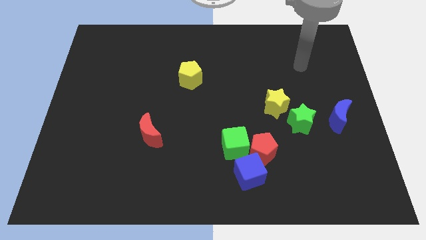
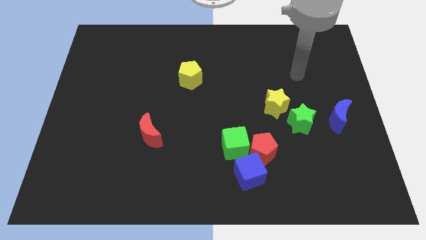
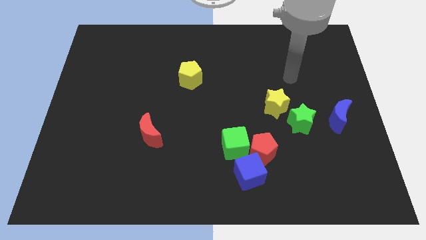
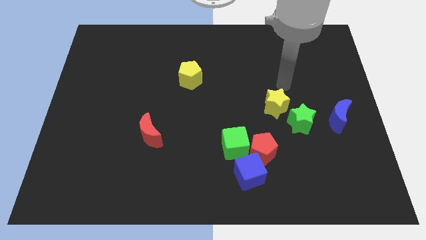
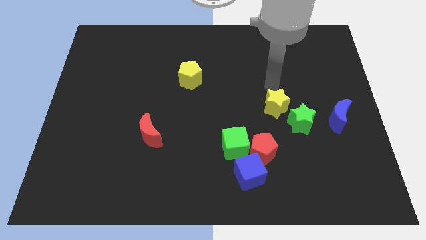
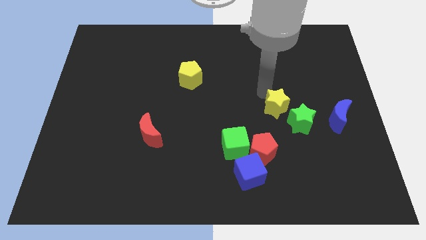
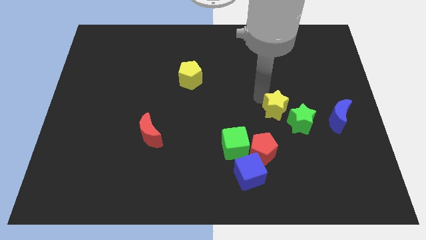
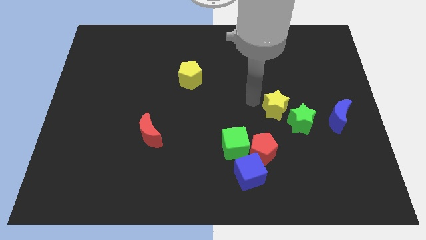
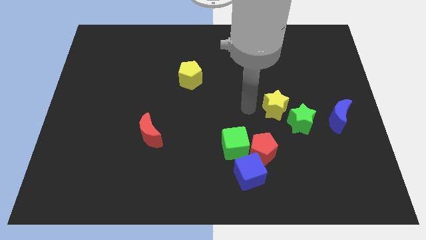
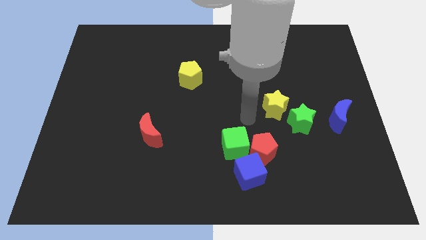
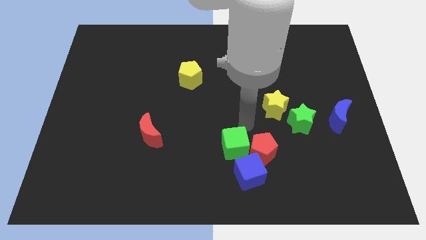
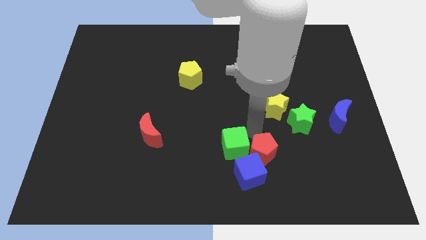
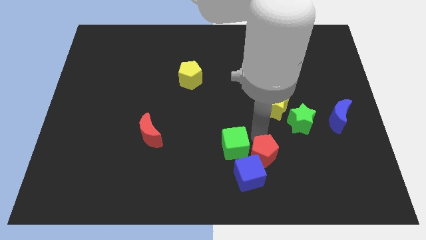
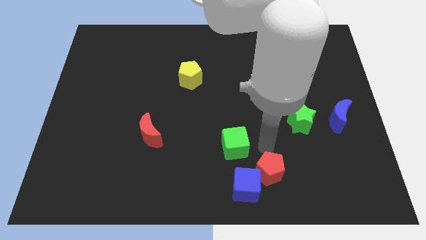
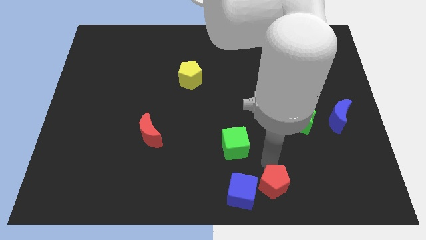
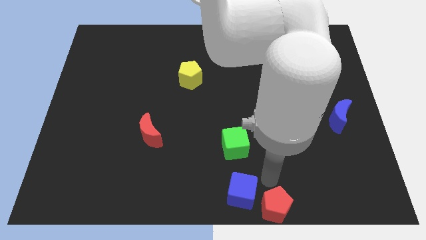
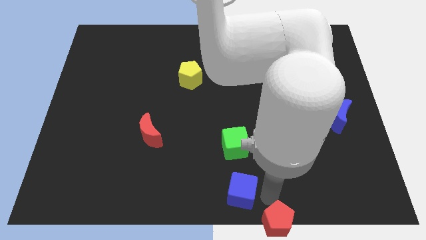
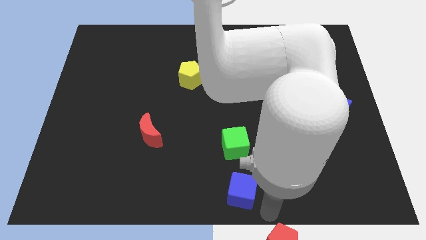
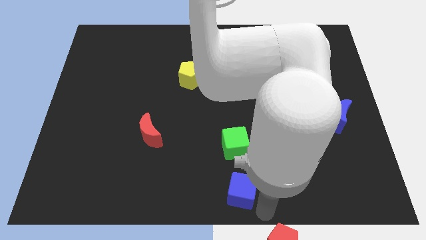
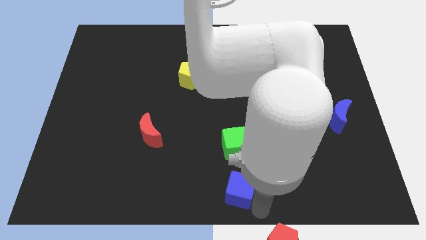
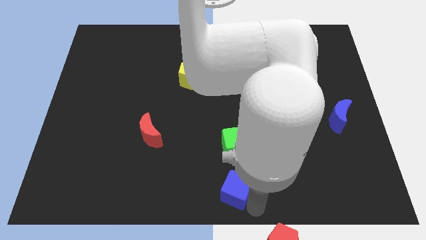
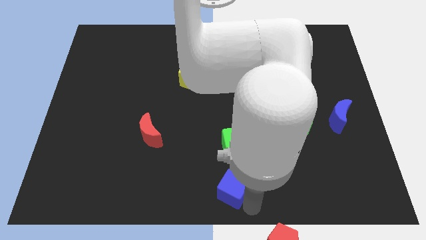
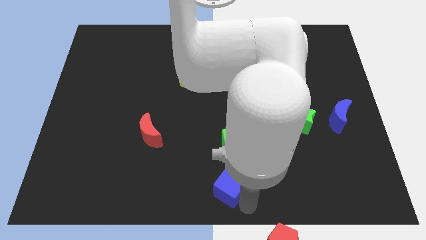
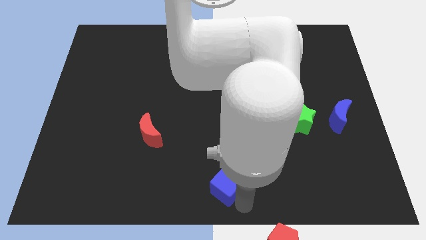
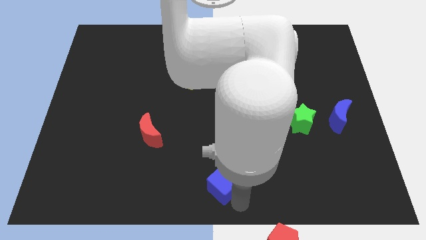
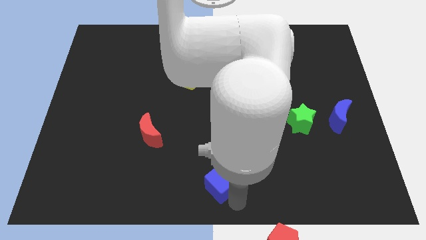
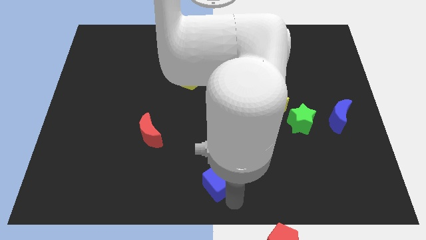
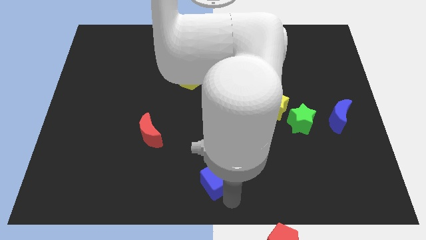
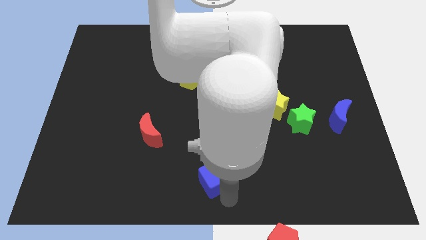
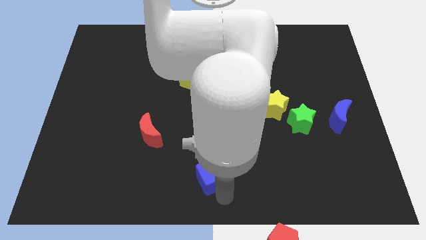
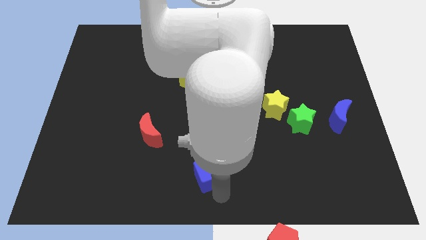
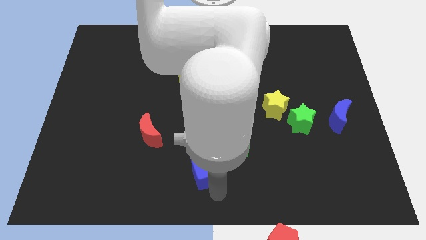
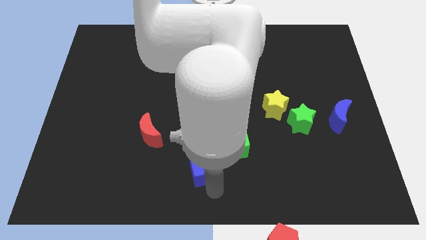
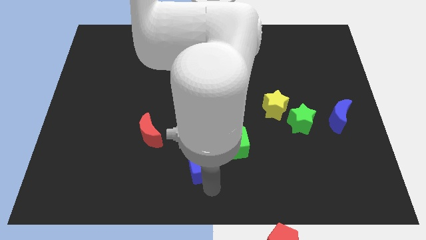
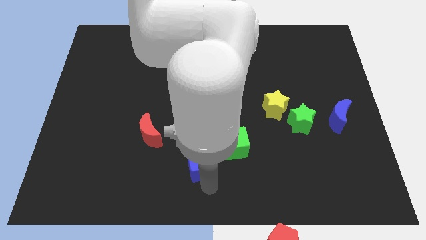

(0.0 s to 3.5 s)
slide the blue cube somewhat up and to the left diagonally

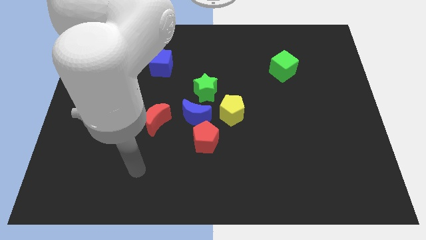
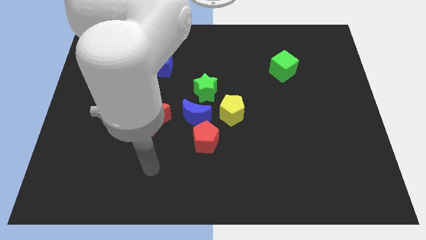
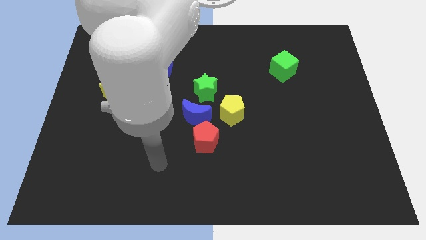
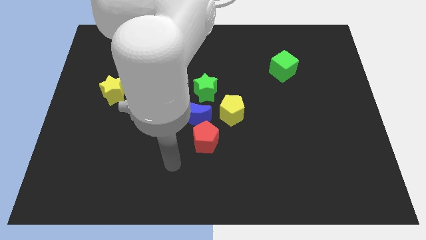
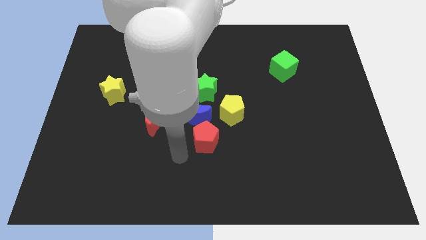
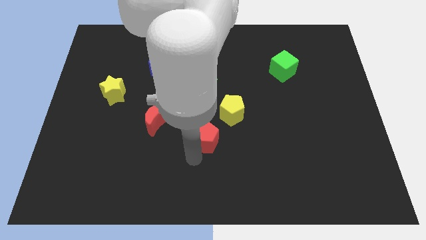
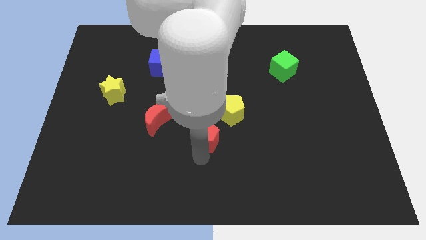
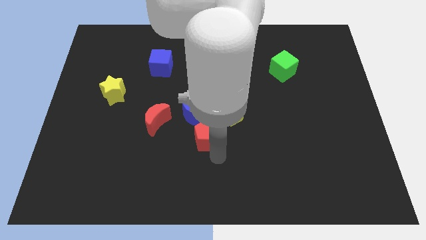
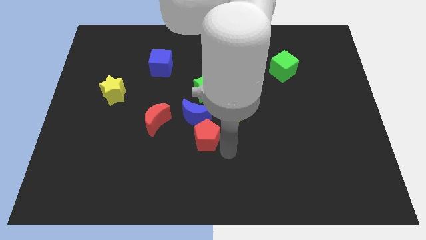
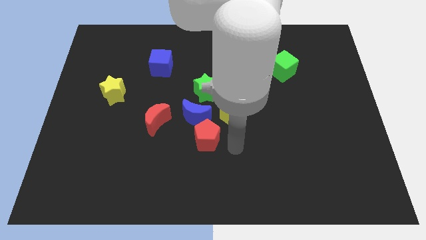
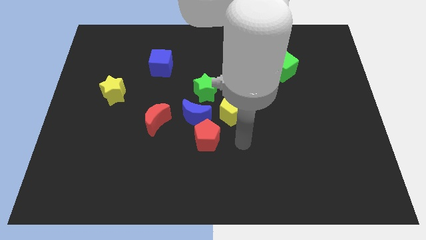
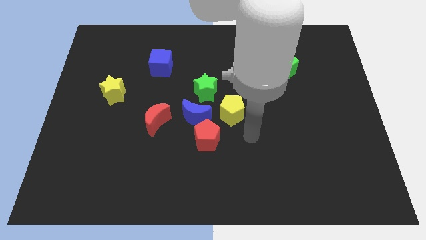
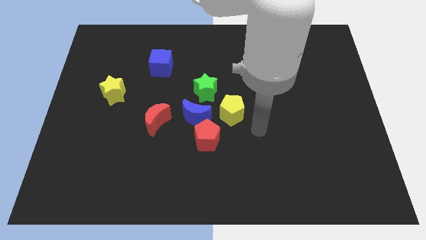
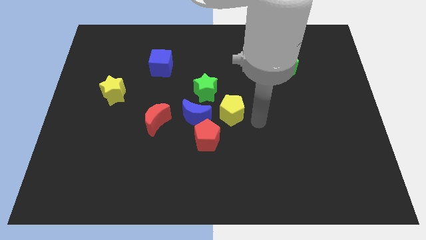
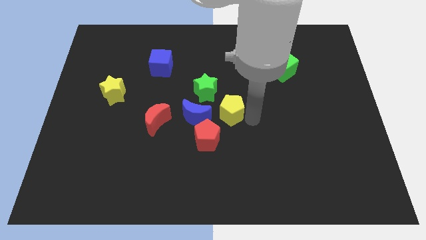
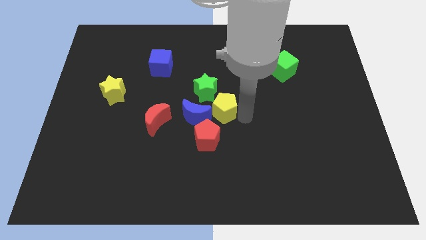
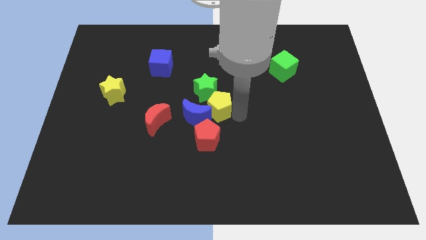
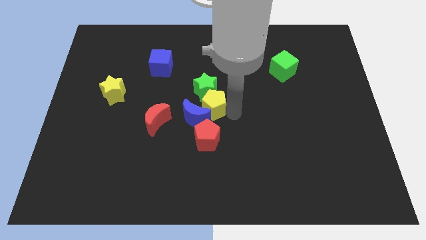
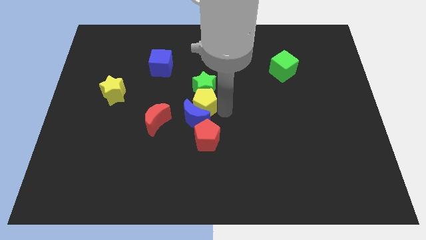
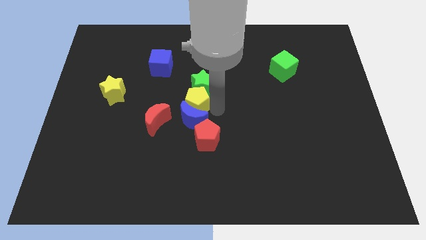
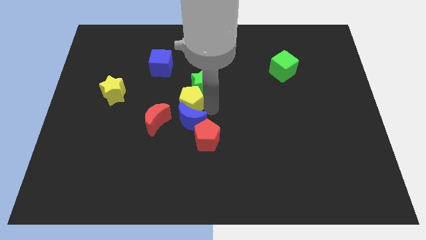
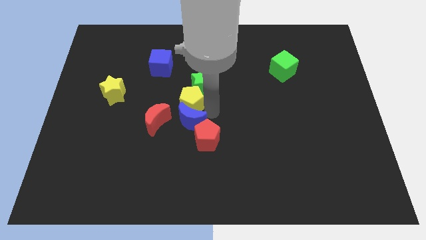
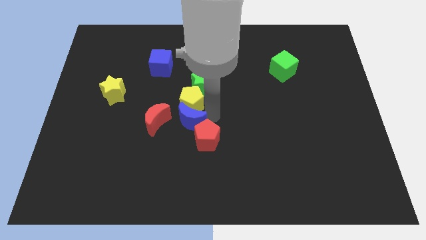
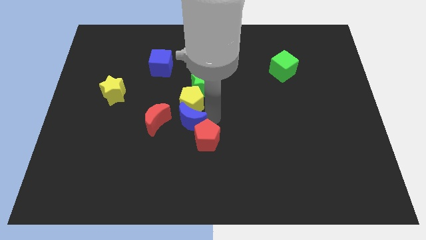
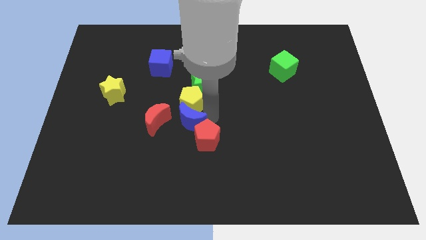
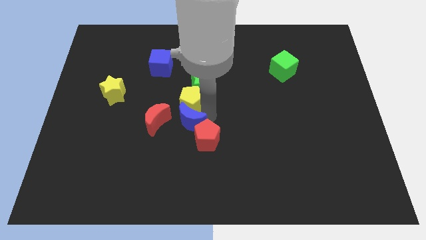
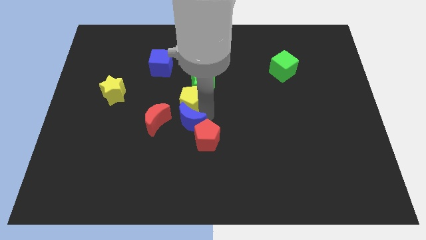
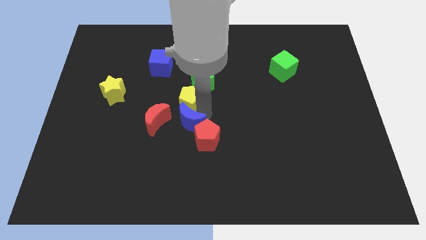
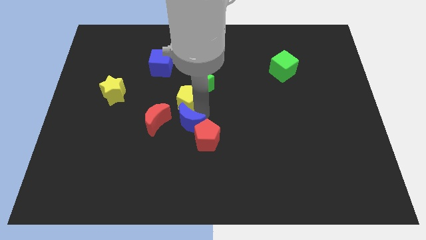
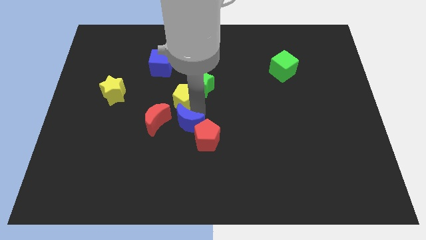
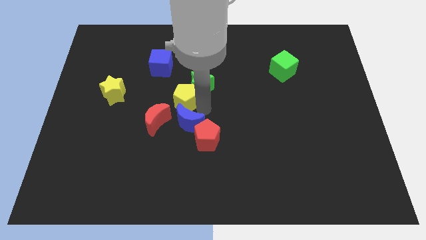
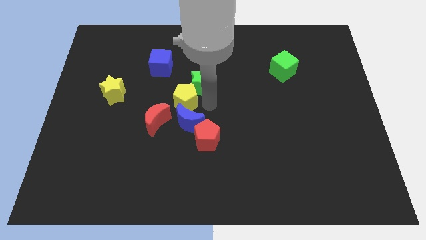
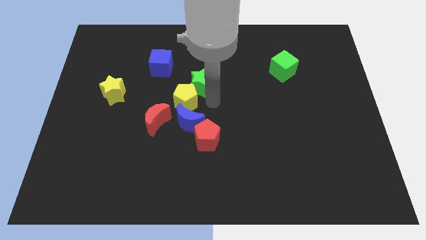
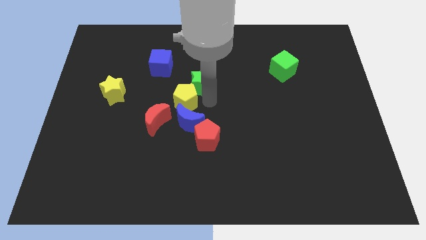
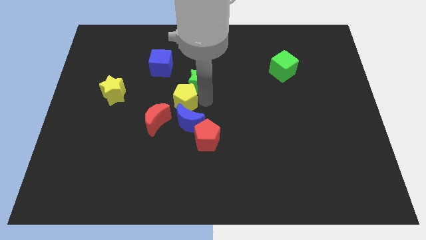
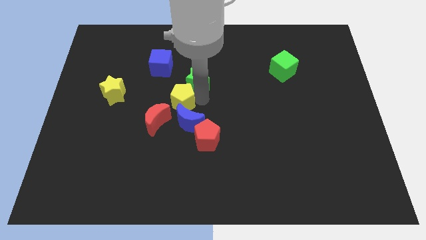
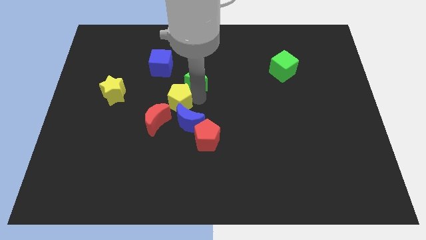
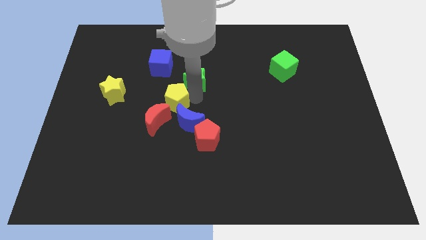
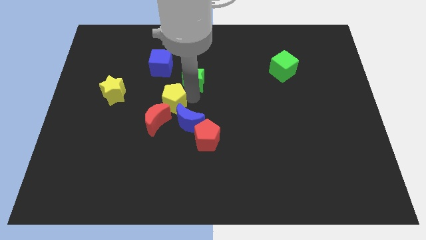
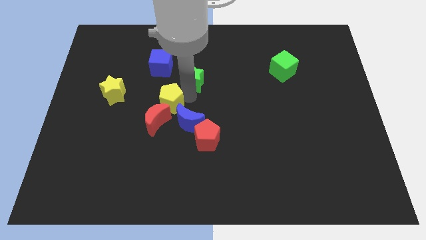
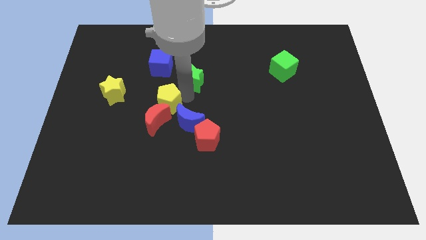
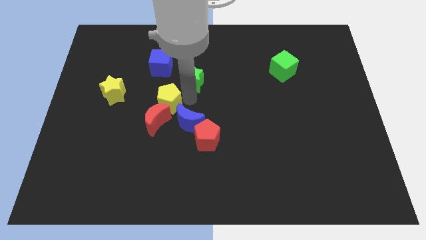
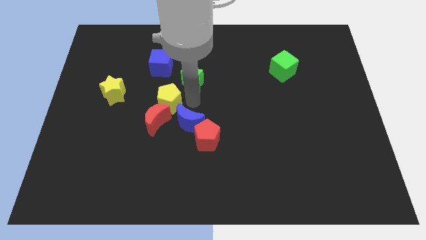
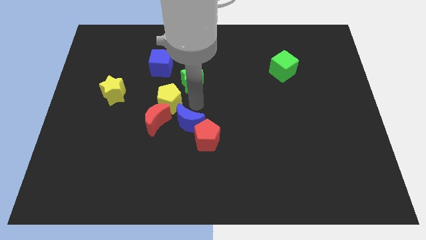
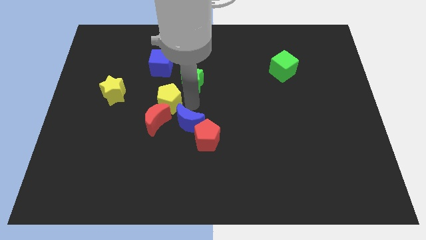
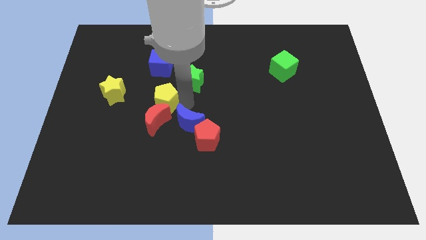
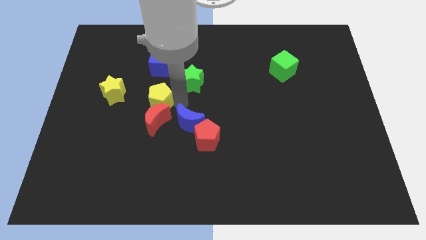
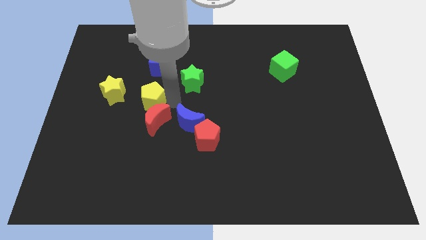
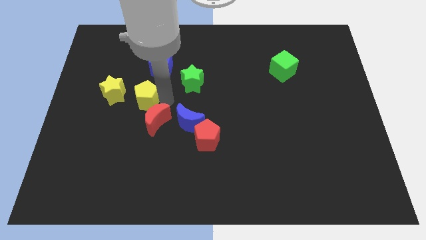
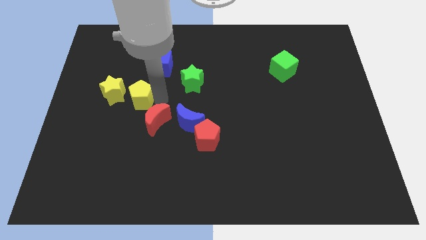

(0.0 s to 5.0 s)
slide the yellow pentagon to the left
